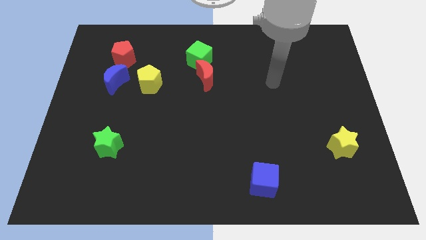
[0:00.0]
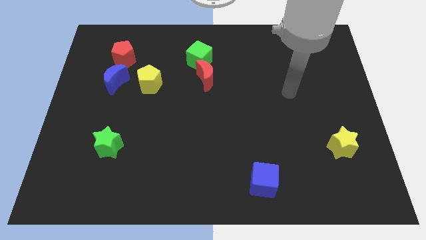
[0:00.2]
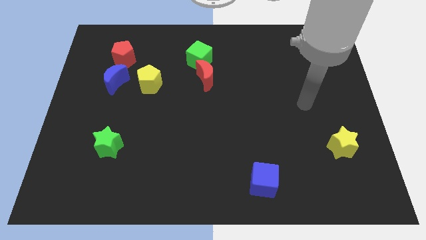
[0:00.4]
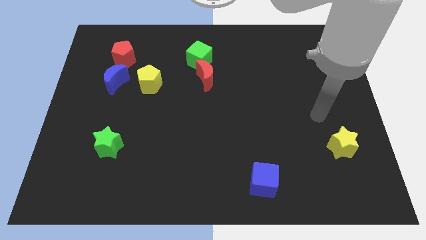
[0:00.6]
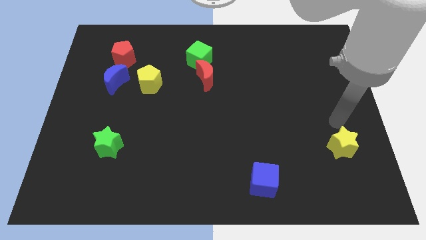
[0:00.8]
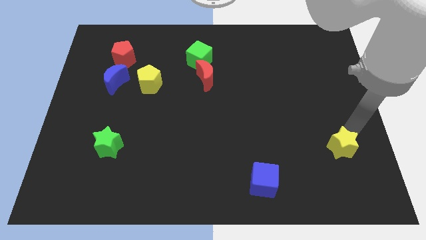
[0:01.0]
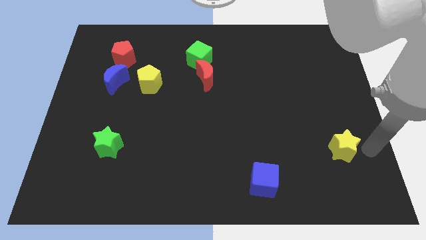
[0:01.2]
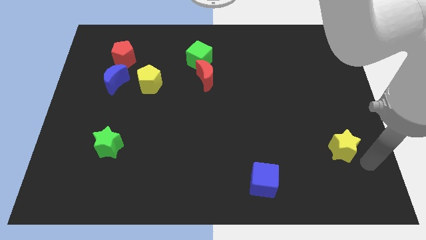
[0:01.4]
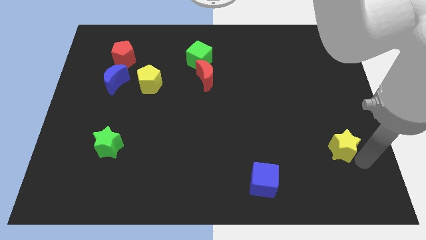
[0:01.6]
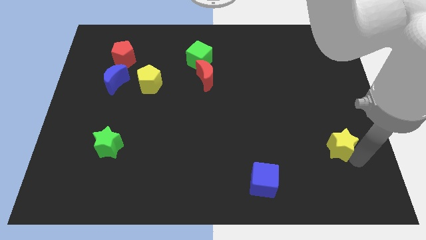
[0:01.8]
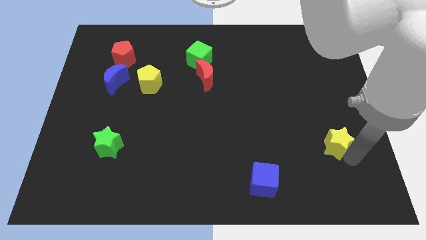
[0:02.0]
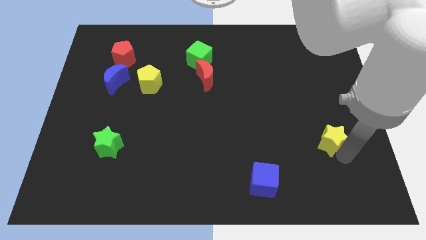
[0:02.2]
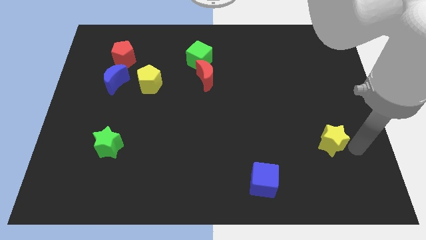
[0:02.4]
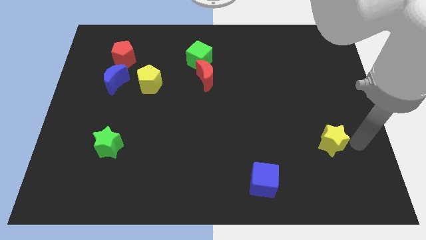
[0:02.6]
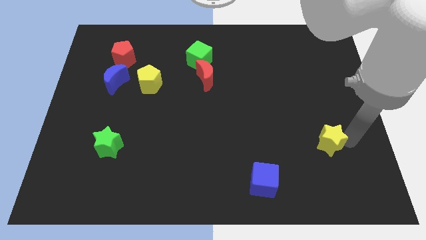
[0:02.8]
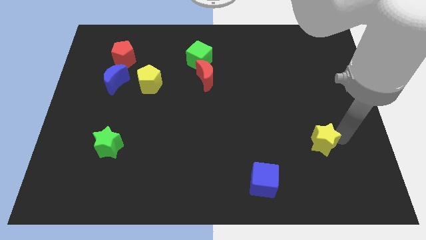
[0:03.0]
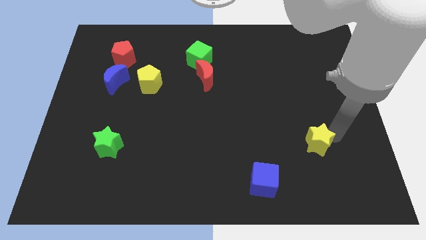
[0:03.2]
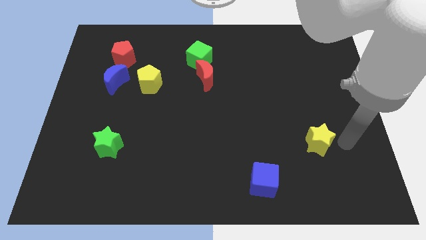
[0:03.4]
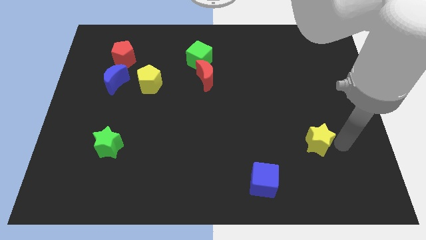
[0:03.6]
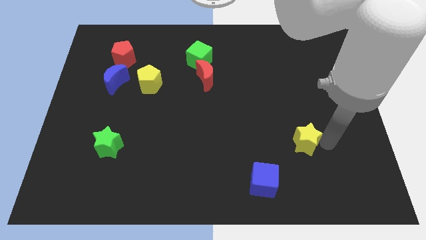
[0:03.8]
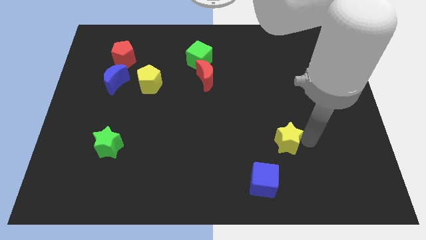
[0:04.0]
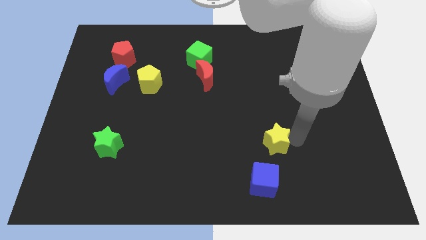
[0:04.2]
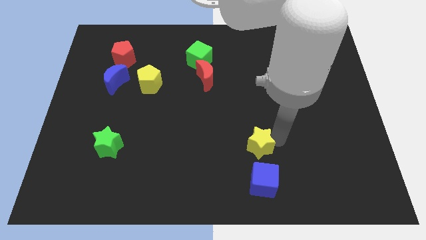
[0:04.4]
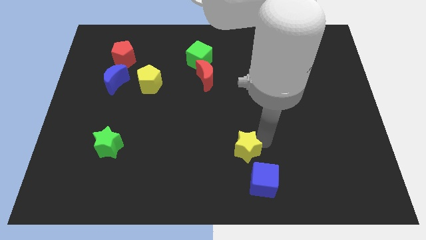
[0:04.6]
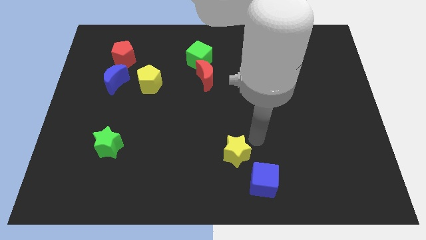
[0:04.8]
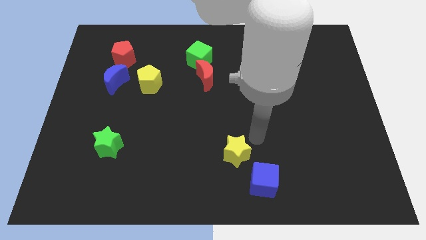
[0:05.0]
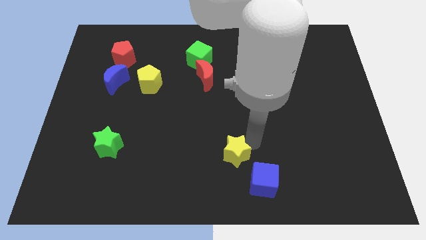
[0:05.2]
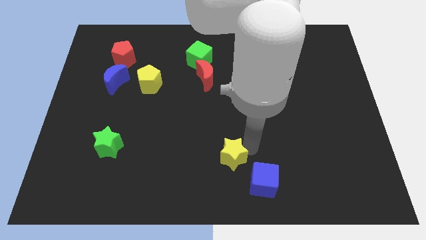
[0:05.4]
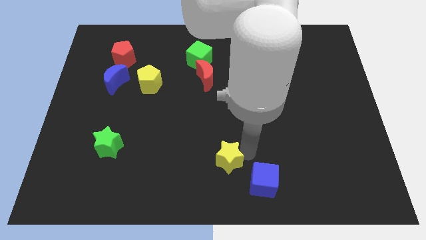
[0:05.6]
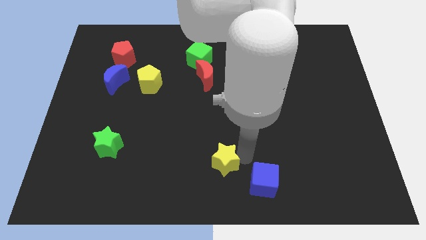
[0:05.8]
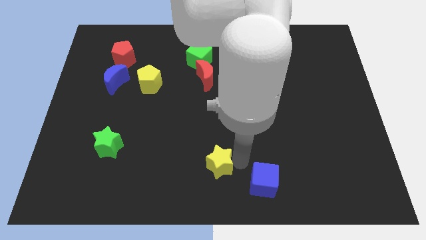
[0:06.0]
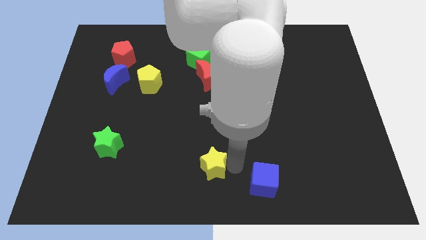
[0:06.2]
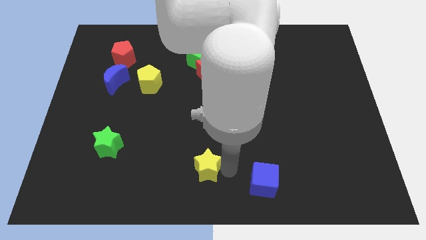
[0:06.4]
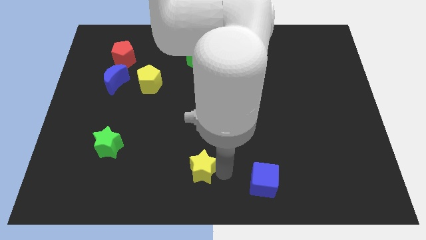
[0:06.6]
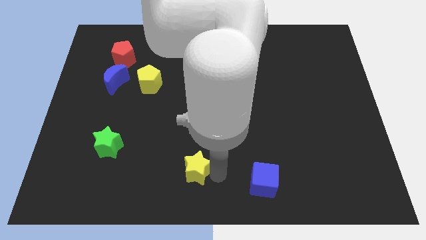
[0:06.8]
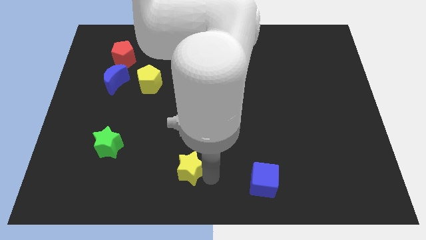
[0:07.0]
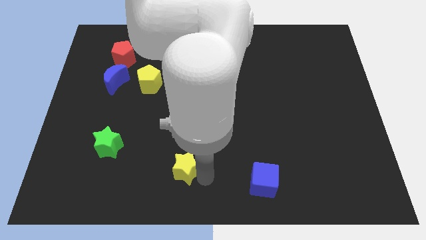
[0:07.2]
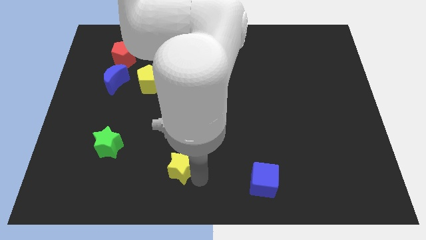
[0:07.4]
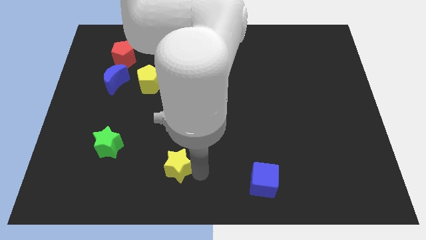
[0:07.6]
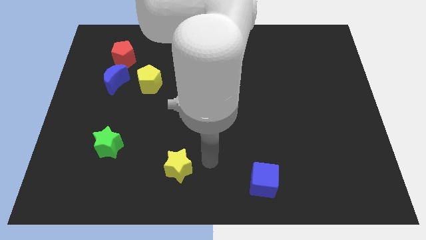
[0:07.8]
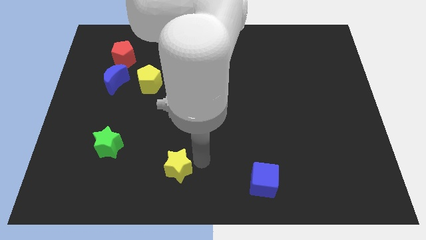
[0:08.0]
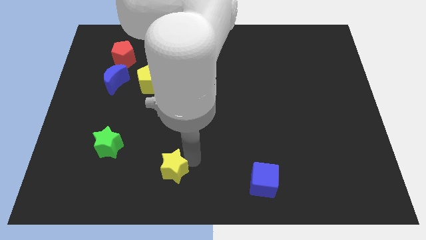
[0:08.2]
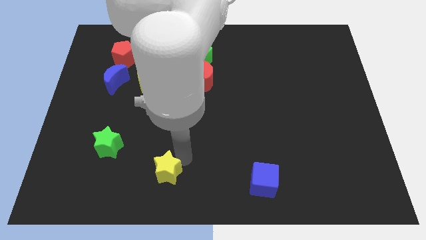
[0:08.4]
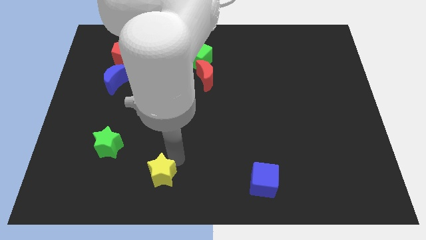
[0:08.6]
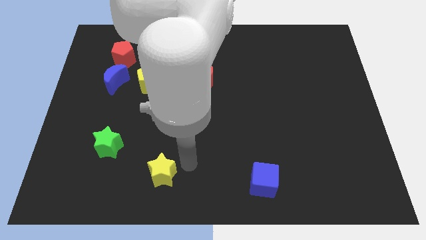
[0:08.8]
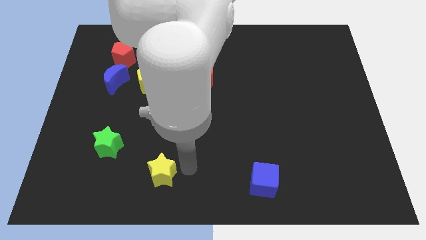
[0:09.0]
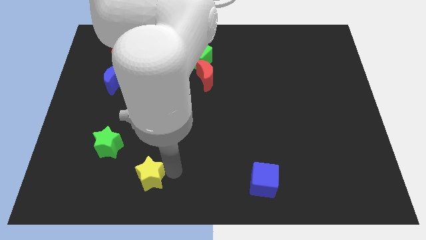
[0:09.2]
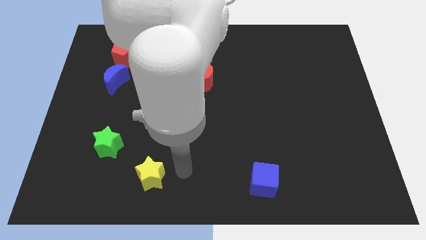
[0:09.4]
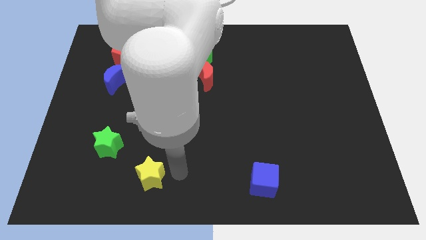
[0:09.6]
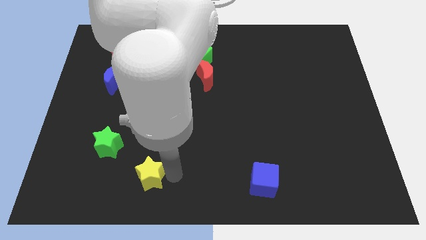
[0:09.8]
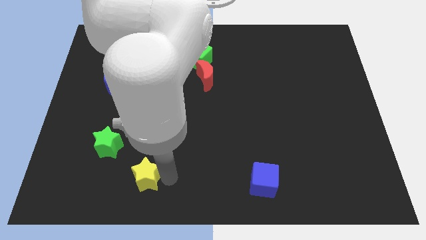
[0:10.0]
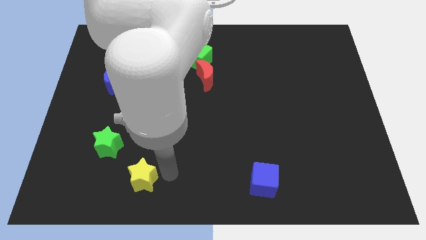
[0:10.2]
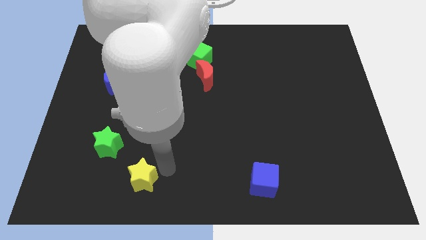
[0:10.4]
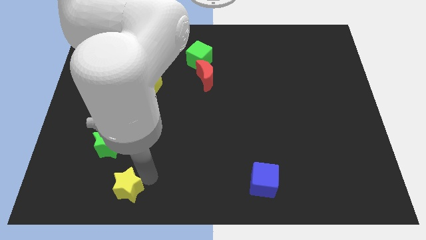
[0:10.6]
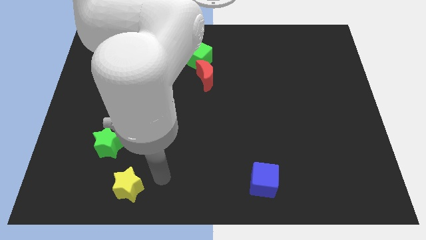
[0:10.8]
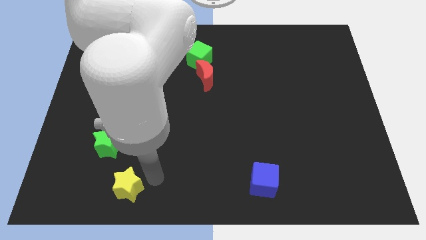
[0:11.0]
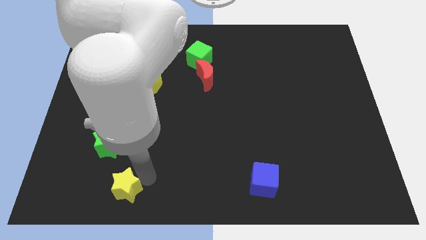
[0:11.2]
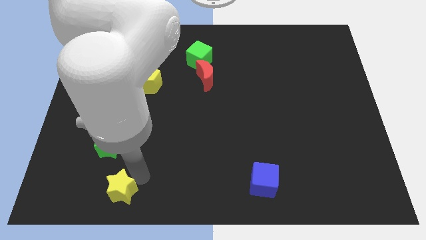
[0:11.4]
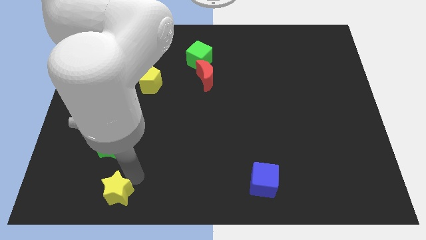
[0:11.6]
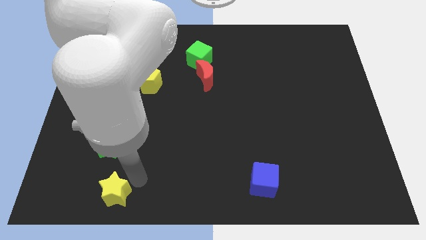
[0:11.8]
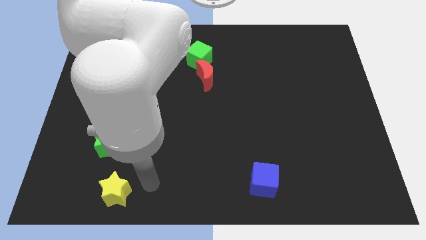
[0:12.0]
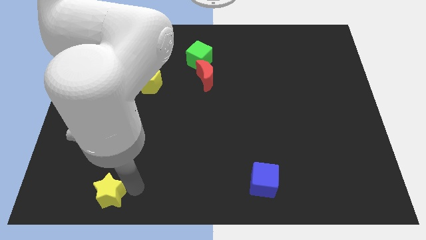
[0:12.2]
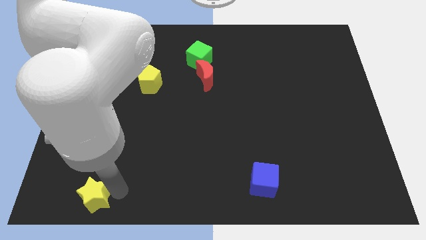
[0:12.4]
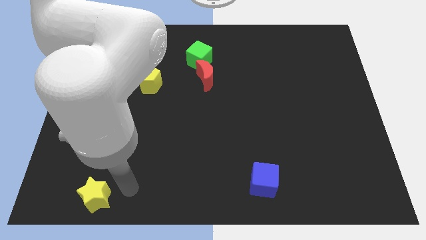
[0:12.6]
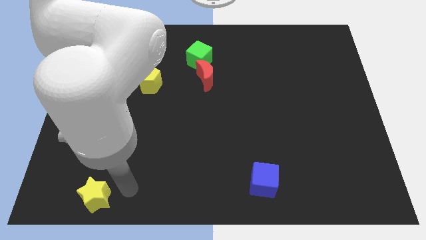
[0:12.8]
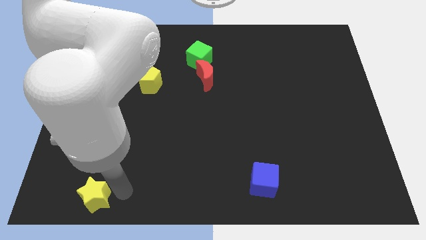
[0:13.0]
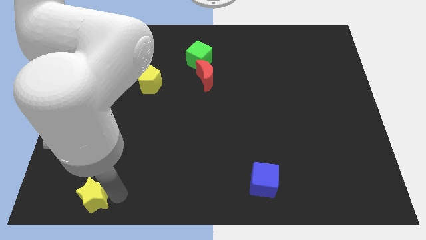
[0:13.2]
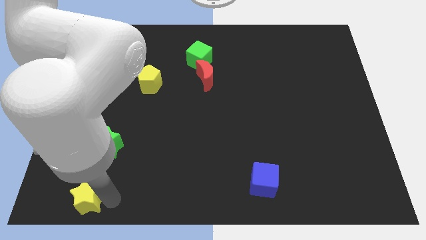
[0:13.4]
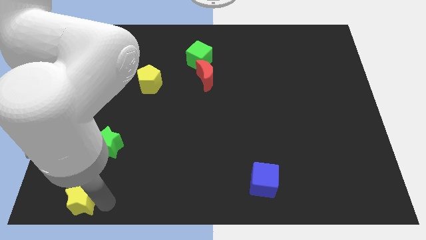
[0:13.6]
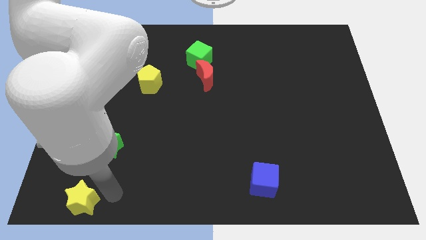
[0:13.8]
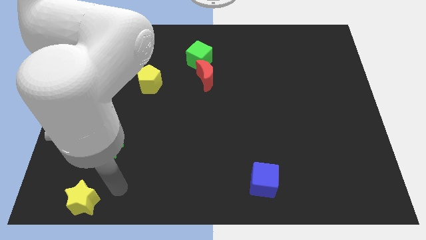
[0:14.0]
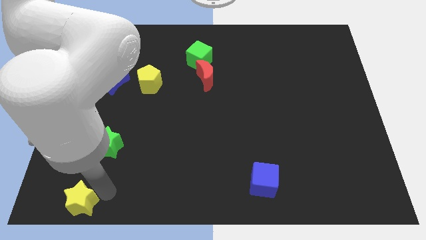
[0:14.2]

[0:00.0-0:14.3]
slide the yellow star to the bottom left corner

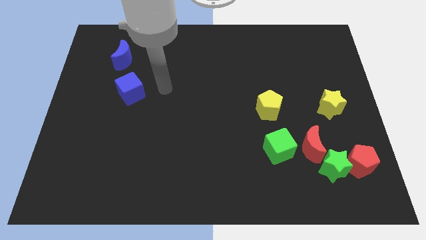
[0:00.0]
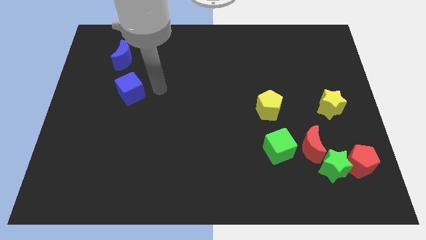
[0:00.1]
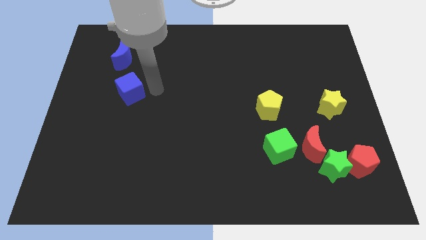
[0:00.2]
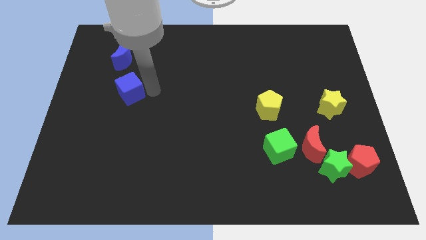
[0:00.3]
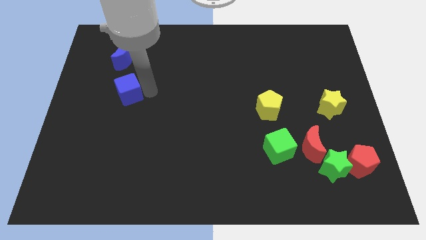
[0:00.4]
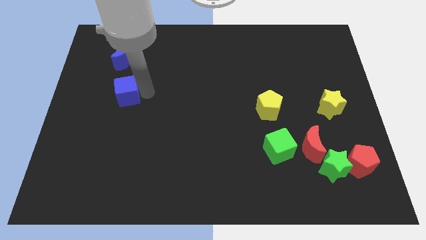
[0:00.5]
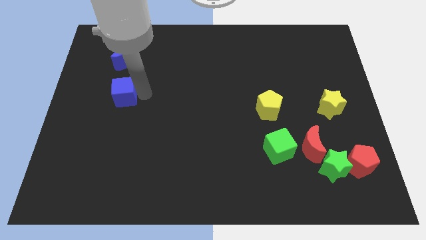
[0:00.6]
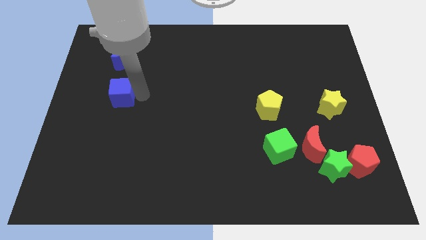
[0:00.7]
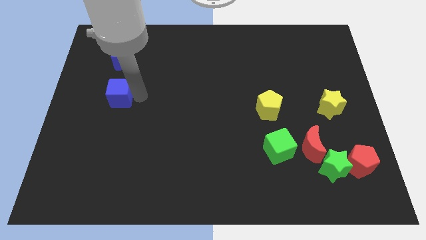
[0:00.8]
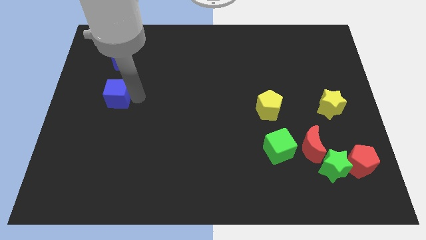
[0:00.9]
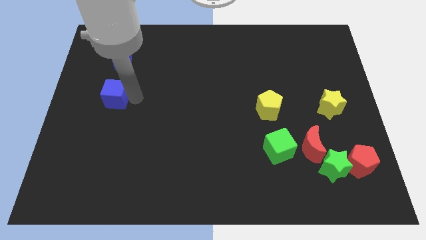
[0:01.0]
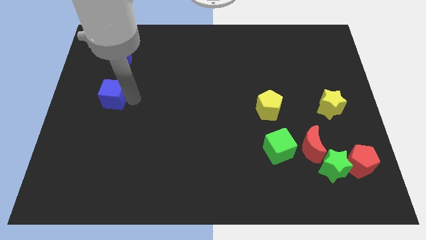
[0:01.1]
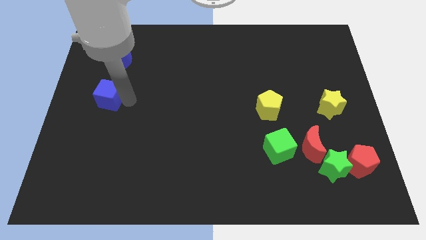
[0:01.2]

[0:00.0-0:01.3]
slide the blue cube to the center left
